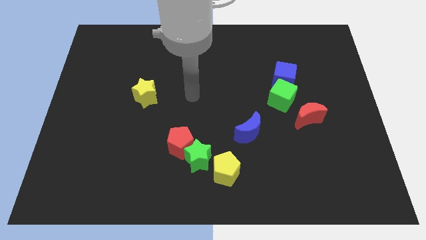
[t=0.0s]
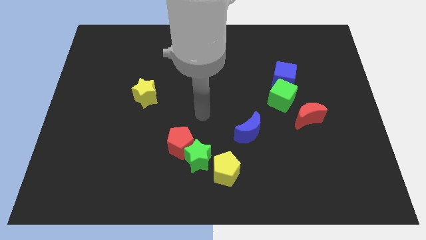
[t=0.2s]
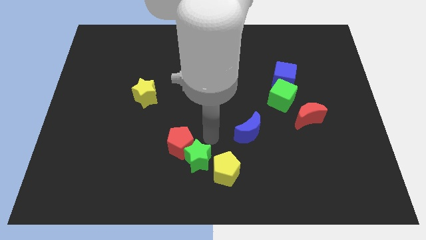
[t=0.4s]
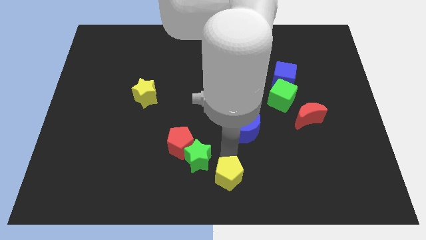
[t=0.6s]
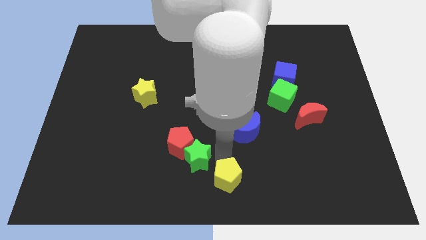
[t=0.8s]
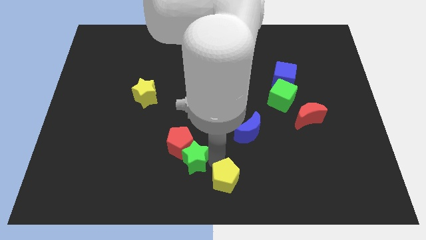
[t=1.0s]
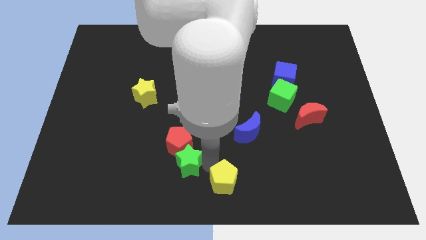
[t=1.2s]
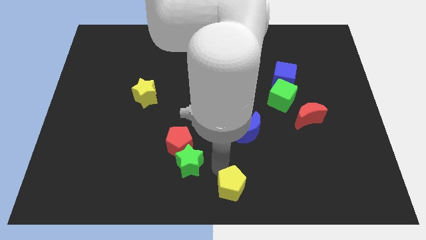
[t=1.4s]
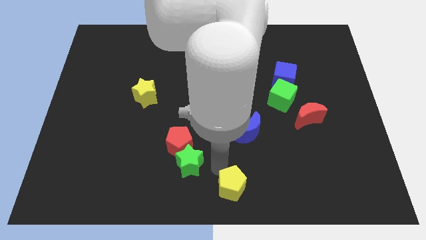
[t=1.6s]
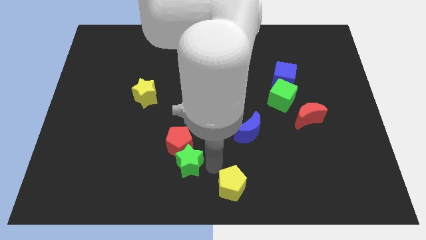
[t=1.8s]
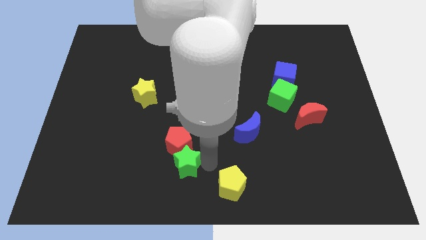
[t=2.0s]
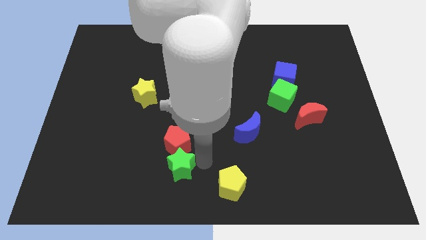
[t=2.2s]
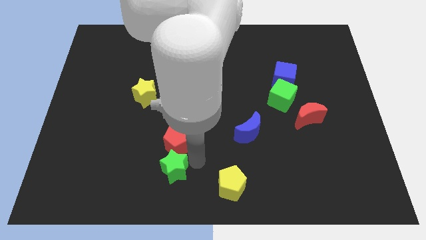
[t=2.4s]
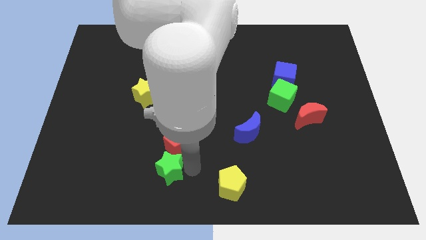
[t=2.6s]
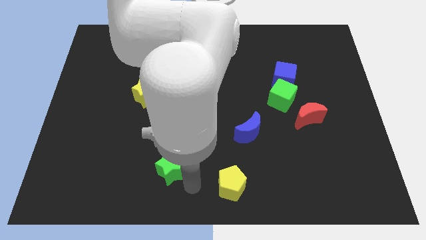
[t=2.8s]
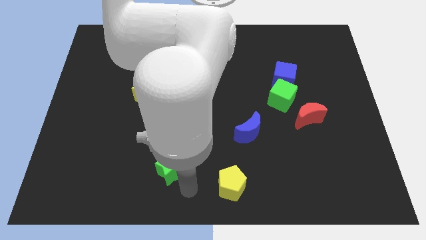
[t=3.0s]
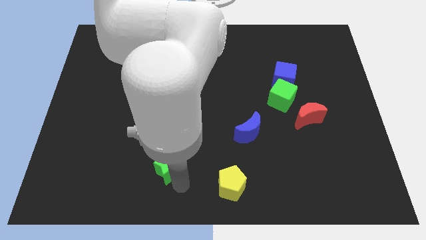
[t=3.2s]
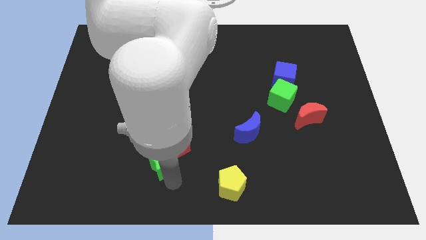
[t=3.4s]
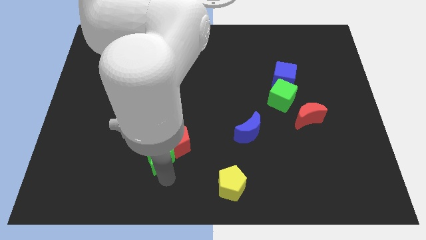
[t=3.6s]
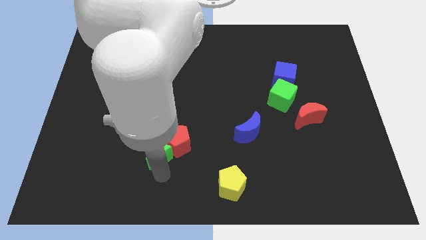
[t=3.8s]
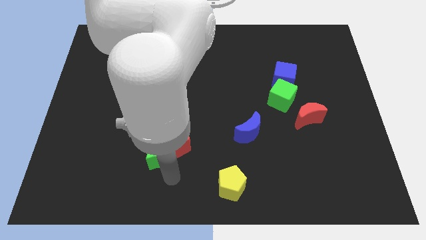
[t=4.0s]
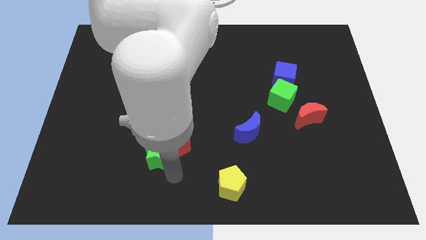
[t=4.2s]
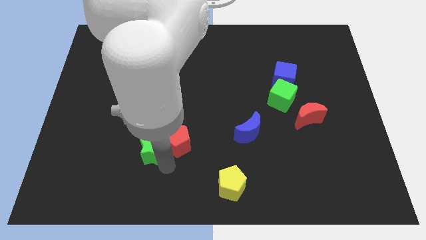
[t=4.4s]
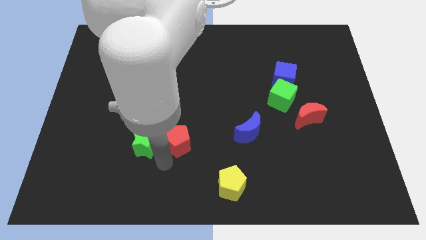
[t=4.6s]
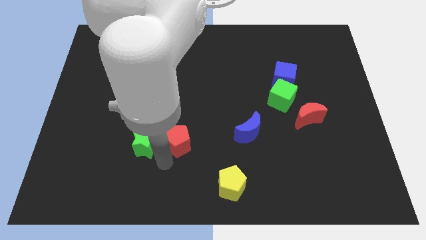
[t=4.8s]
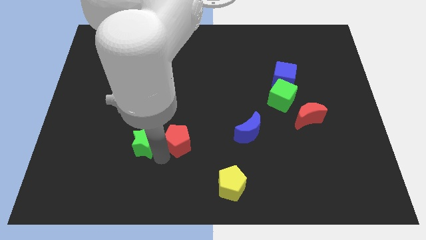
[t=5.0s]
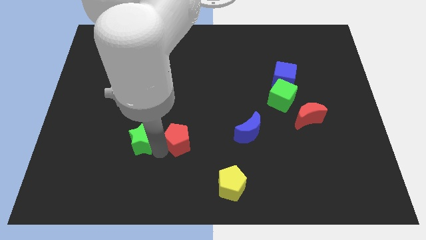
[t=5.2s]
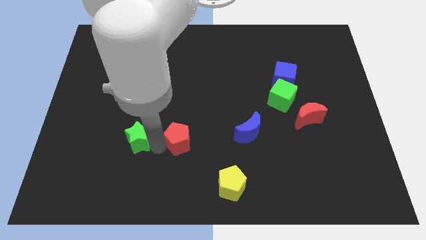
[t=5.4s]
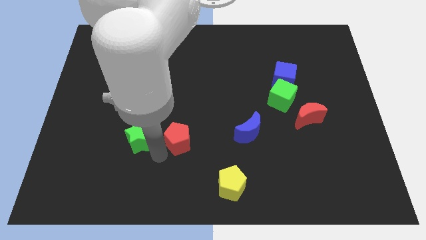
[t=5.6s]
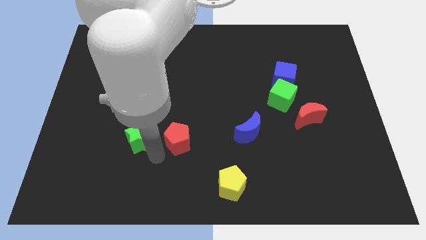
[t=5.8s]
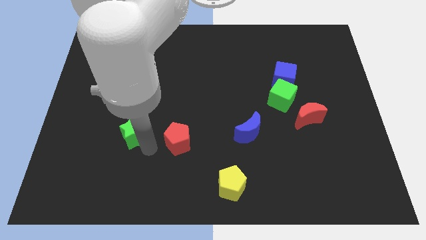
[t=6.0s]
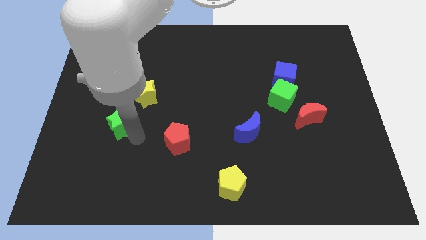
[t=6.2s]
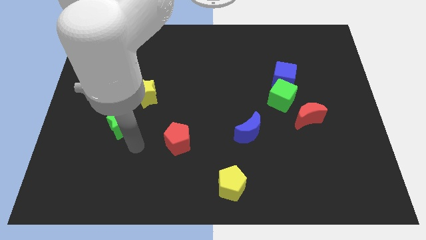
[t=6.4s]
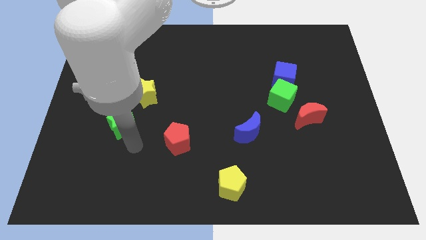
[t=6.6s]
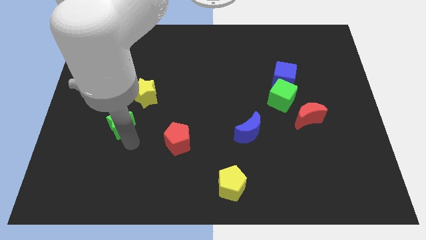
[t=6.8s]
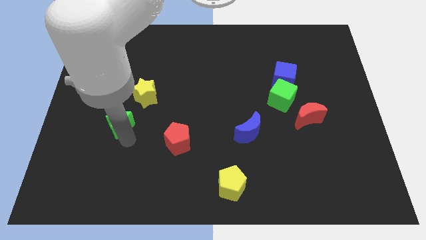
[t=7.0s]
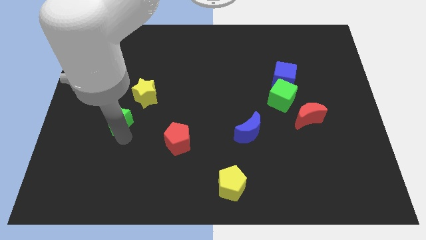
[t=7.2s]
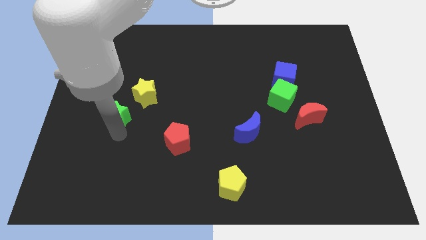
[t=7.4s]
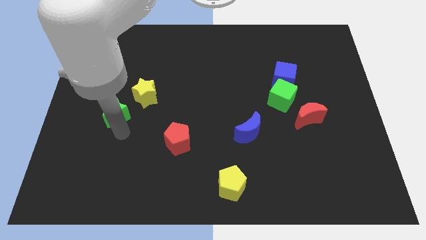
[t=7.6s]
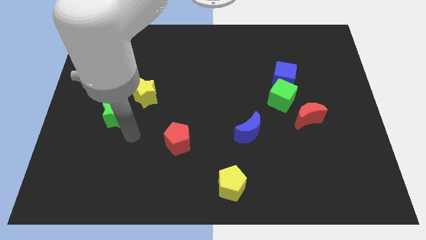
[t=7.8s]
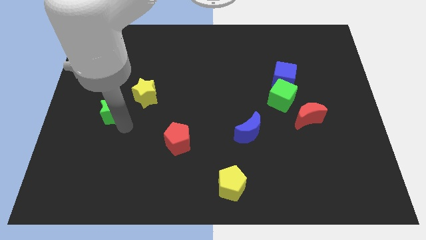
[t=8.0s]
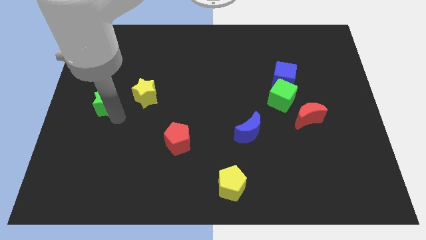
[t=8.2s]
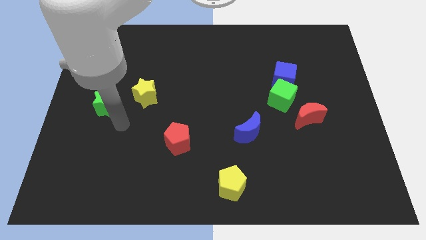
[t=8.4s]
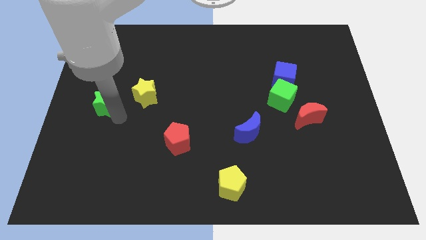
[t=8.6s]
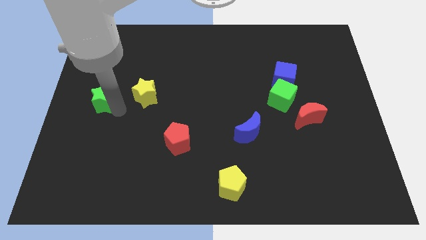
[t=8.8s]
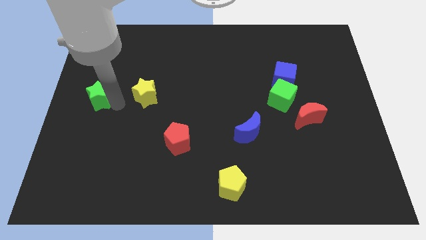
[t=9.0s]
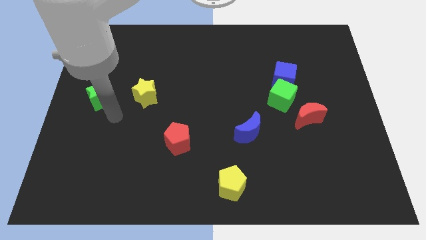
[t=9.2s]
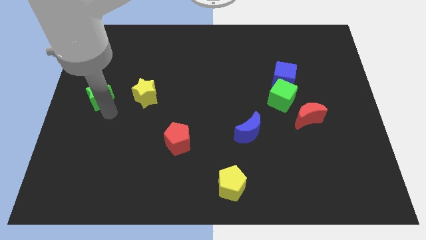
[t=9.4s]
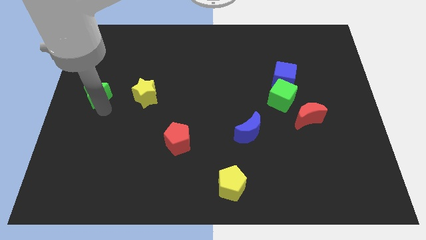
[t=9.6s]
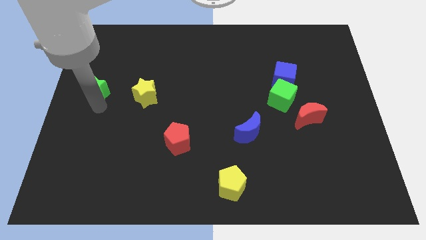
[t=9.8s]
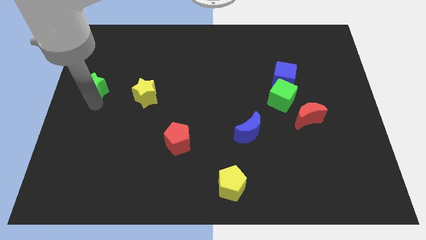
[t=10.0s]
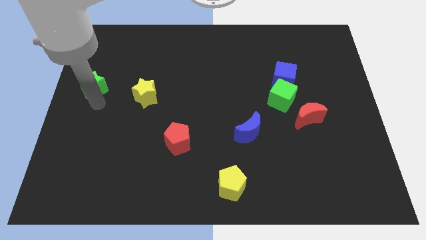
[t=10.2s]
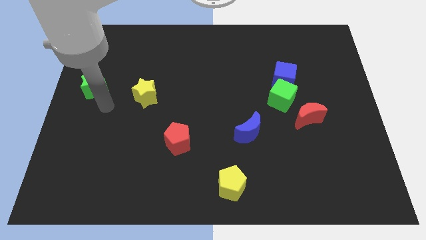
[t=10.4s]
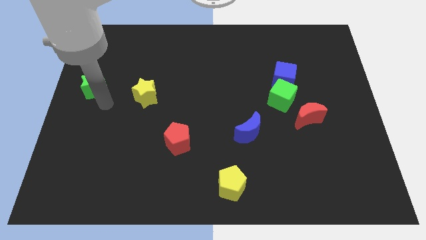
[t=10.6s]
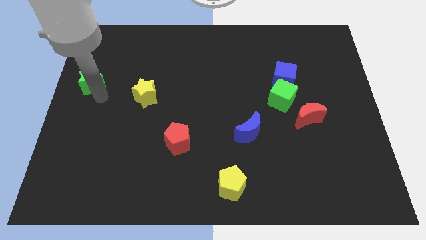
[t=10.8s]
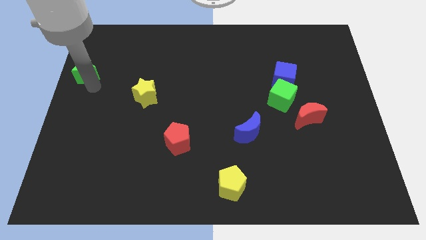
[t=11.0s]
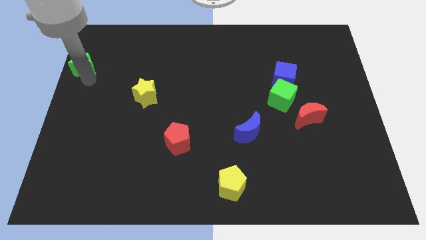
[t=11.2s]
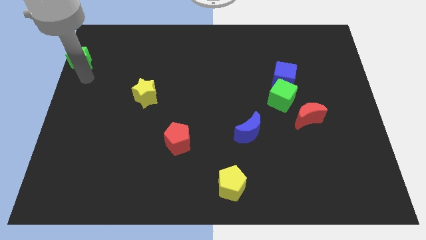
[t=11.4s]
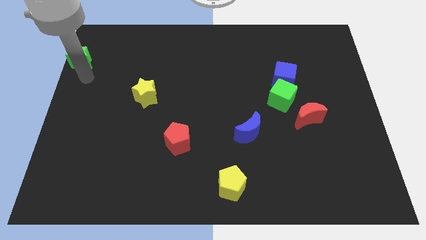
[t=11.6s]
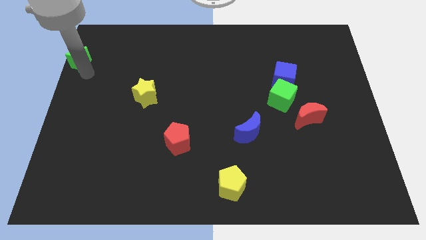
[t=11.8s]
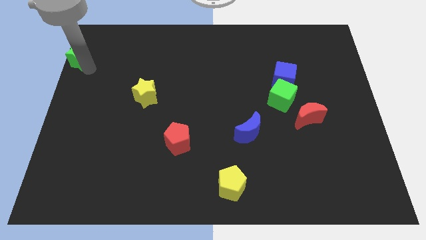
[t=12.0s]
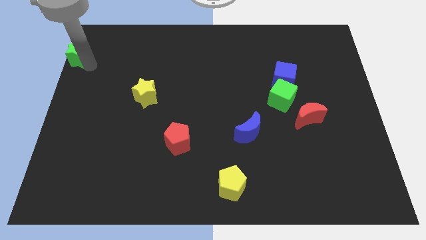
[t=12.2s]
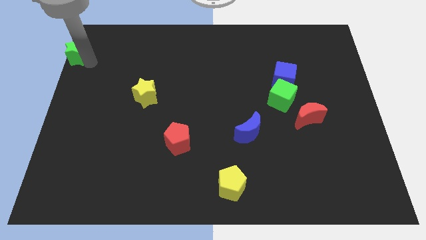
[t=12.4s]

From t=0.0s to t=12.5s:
slide the green star to the top left corner
